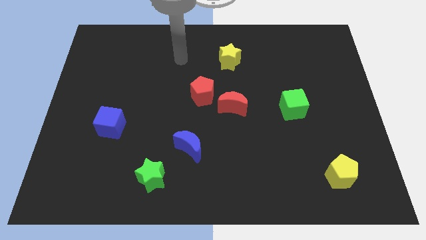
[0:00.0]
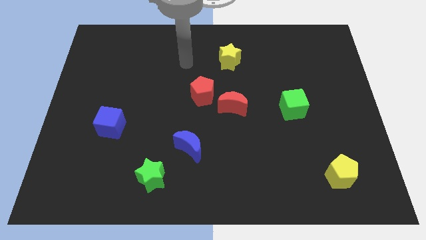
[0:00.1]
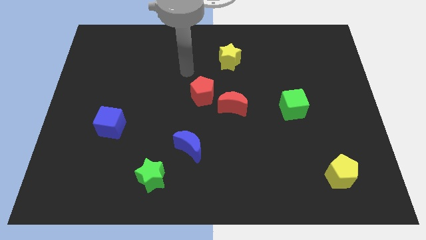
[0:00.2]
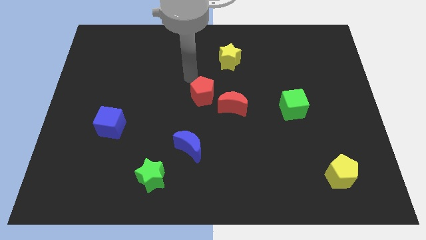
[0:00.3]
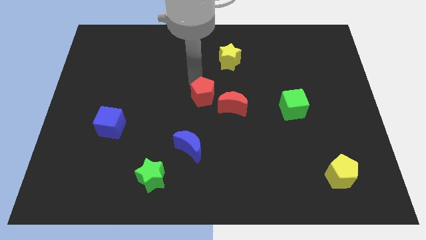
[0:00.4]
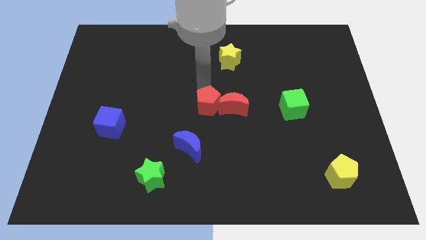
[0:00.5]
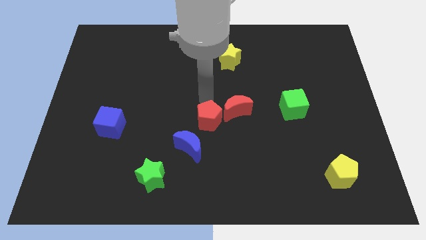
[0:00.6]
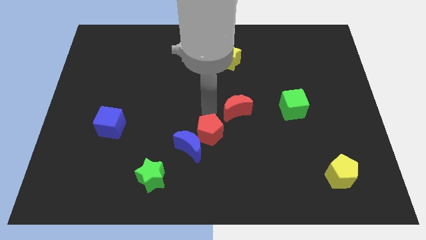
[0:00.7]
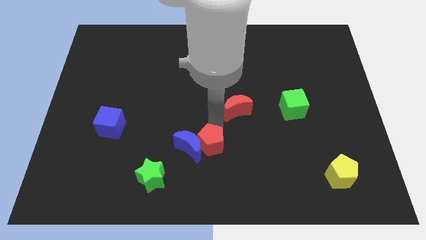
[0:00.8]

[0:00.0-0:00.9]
pull the red moon apart from the red pentagon

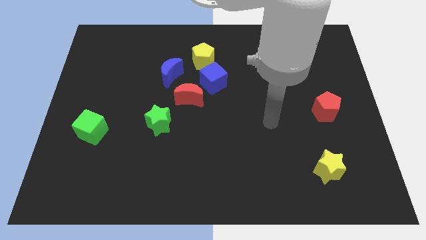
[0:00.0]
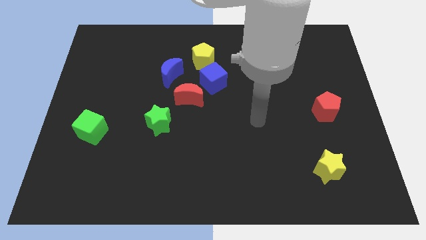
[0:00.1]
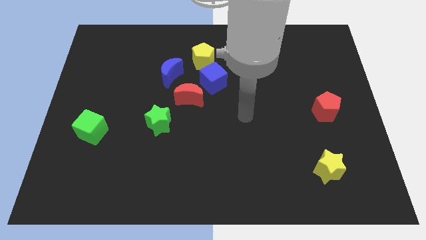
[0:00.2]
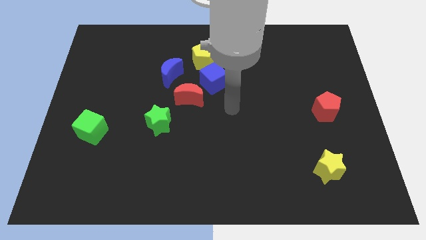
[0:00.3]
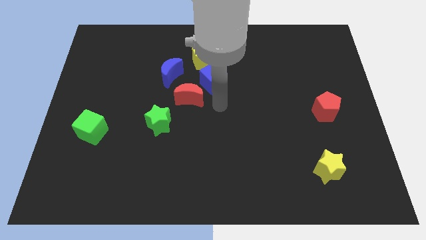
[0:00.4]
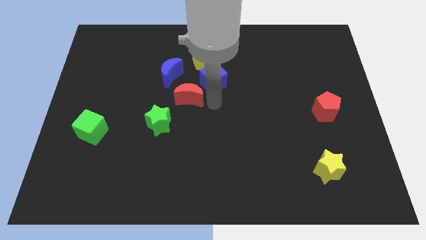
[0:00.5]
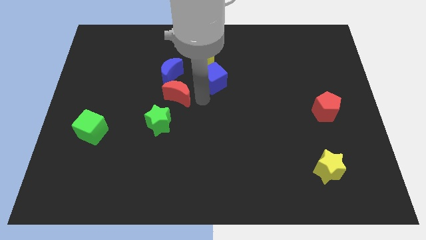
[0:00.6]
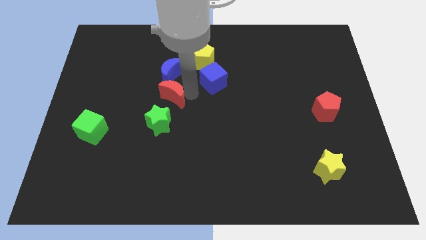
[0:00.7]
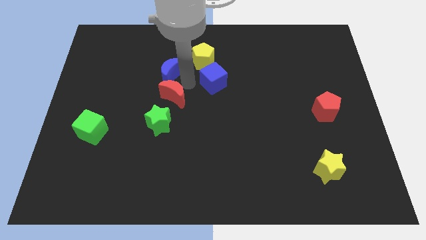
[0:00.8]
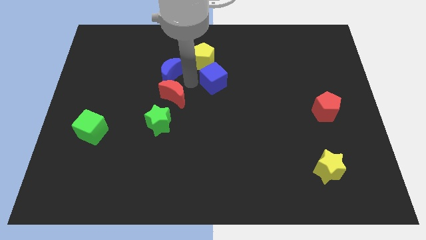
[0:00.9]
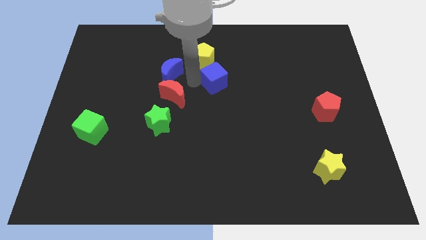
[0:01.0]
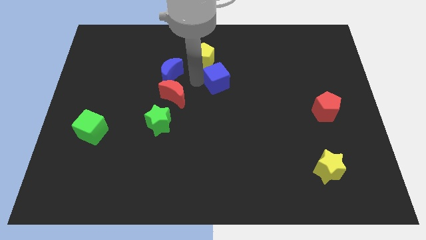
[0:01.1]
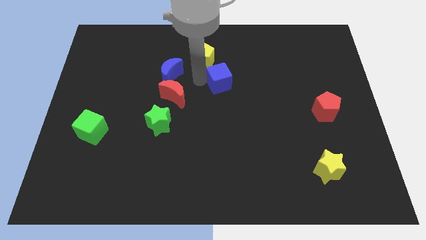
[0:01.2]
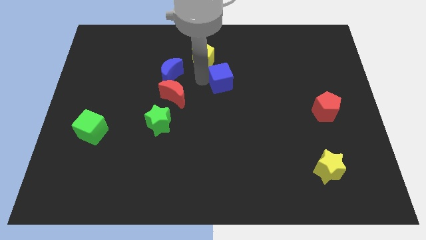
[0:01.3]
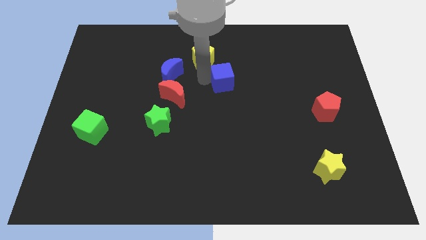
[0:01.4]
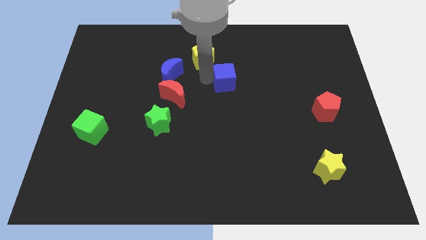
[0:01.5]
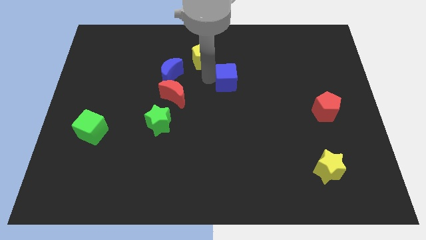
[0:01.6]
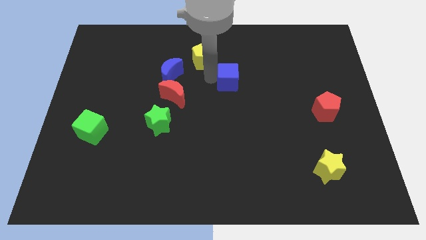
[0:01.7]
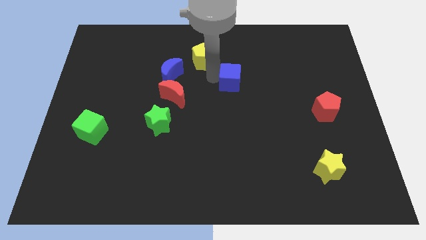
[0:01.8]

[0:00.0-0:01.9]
move the blue cube away from the red moon and yellow pentagon

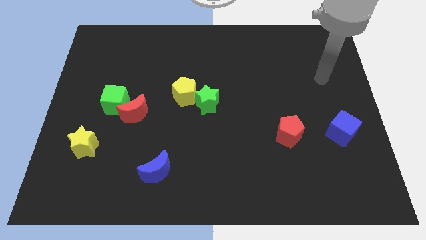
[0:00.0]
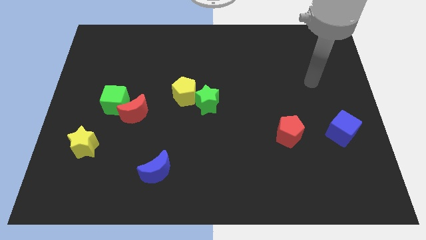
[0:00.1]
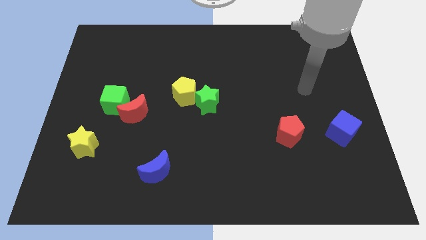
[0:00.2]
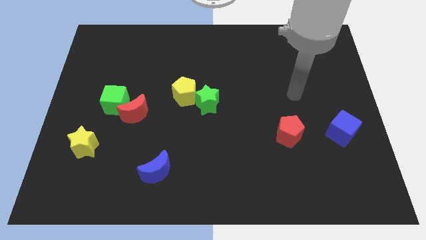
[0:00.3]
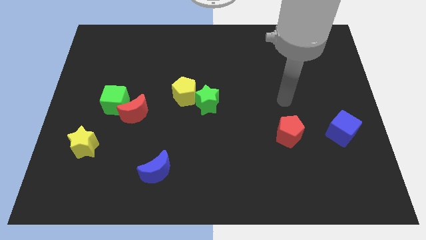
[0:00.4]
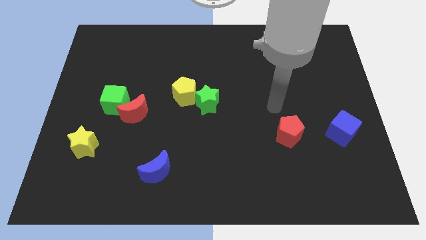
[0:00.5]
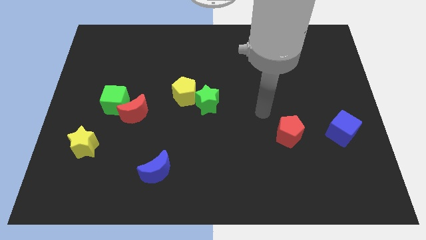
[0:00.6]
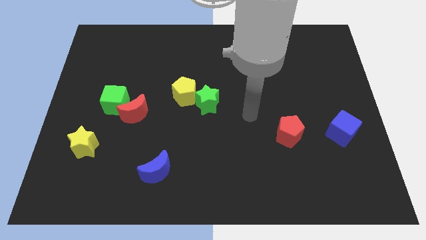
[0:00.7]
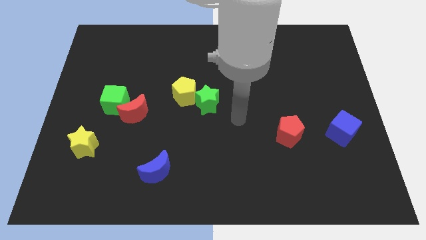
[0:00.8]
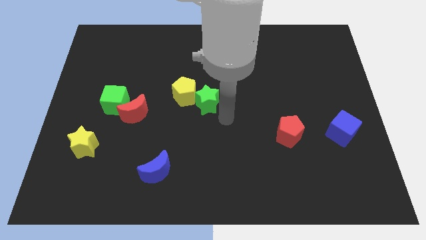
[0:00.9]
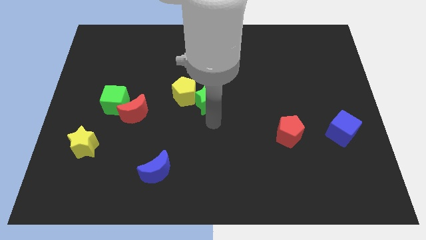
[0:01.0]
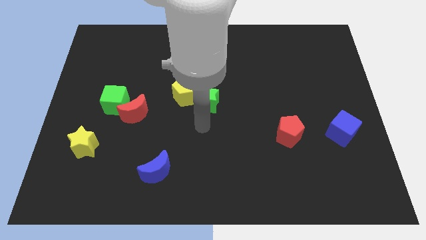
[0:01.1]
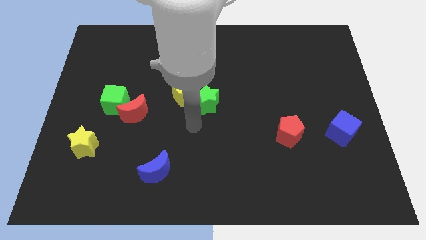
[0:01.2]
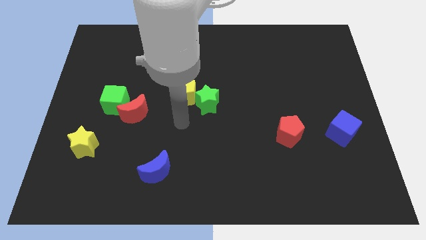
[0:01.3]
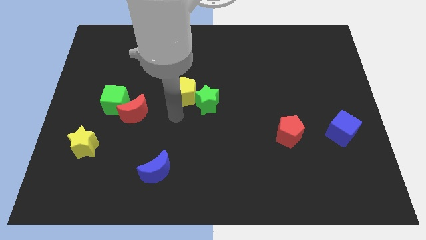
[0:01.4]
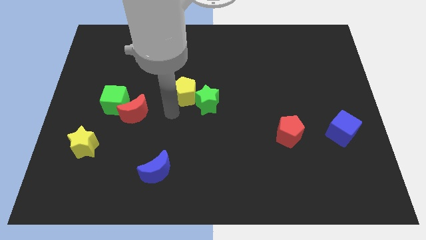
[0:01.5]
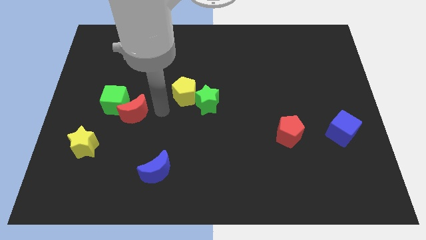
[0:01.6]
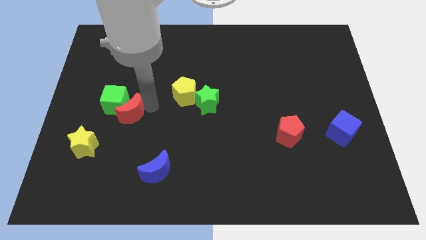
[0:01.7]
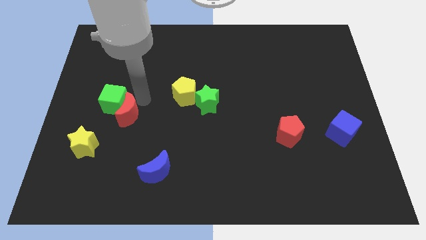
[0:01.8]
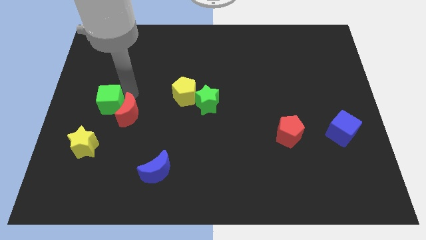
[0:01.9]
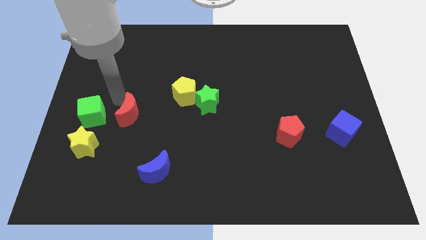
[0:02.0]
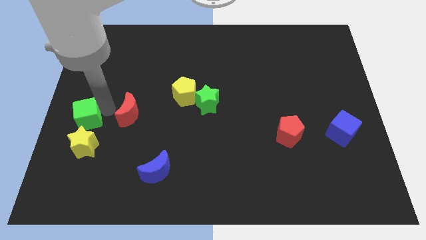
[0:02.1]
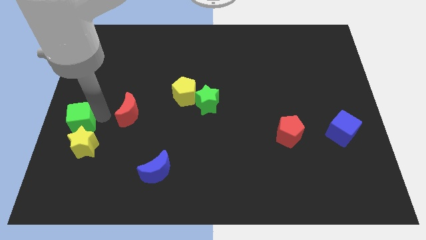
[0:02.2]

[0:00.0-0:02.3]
pull the red moon apart from the green cube

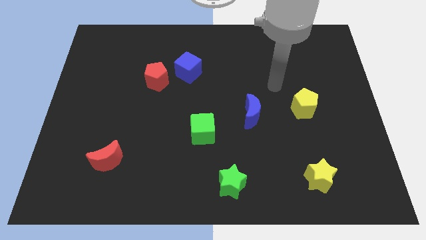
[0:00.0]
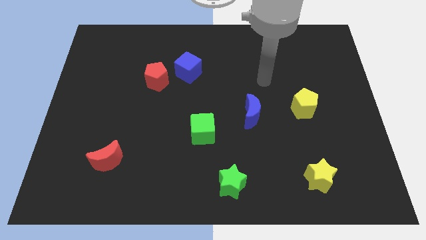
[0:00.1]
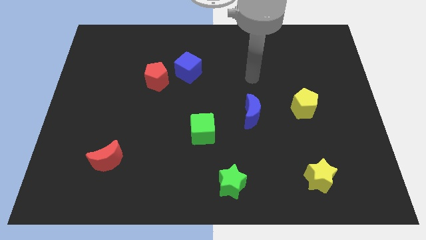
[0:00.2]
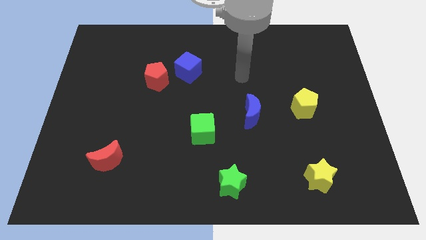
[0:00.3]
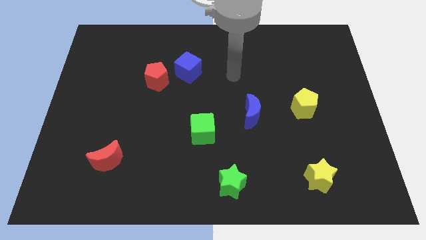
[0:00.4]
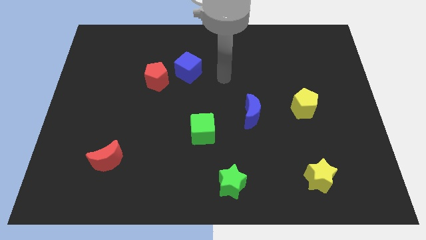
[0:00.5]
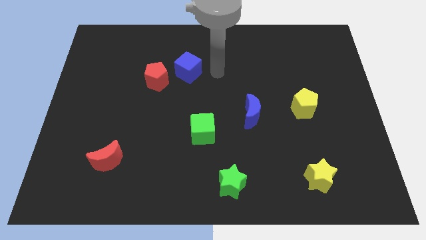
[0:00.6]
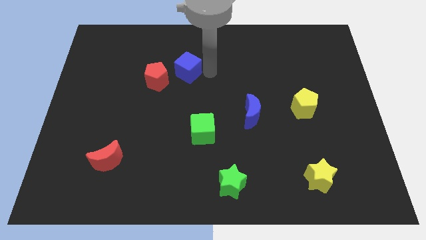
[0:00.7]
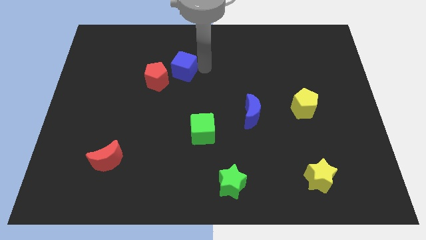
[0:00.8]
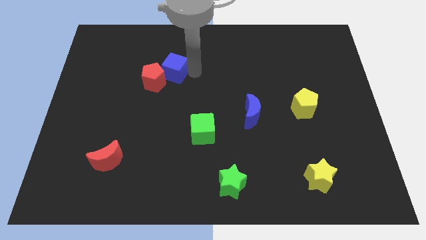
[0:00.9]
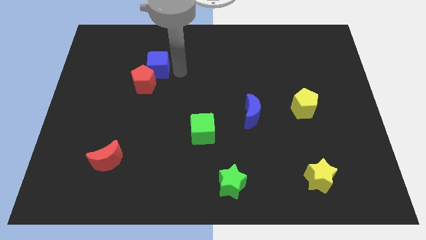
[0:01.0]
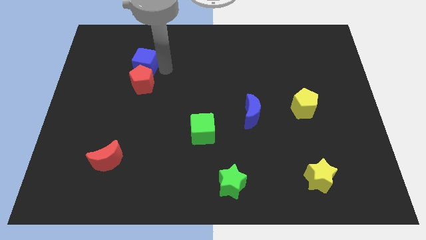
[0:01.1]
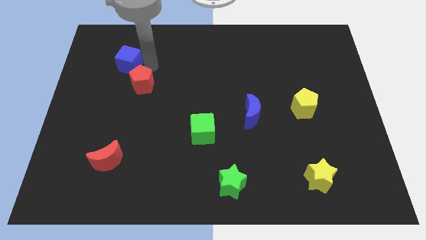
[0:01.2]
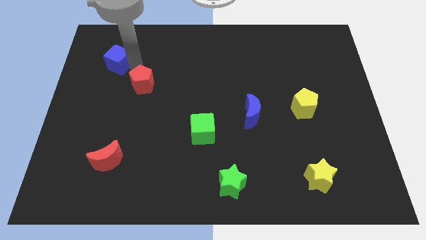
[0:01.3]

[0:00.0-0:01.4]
separate the red pentagon from the blue cube

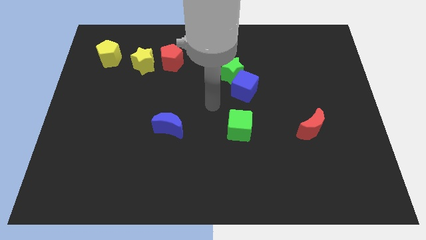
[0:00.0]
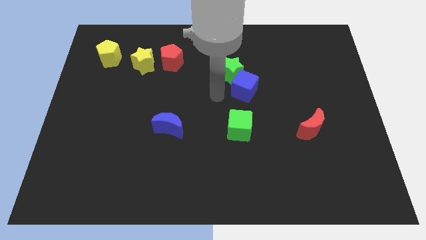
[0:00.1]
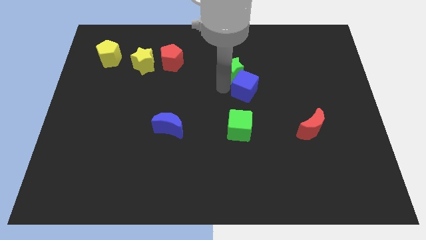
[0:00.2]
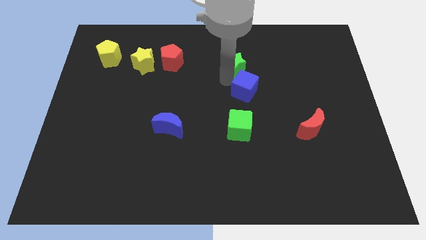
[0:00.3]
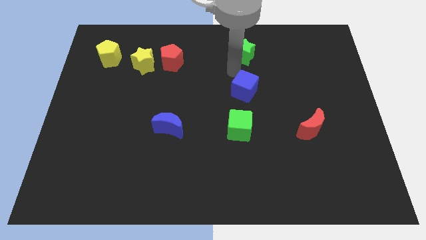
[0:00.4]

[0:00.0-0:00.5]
separate the blue cube from the green star

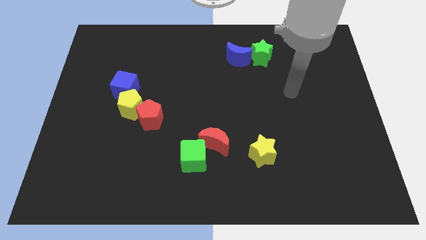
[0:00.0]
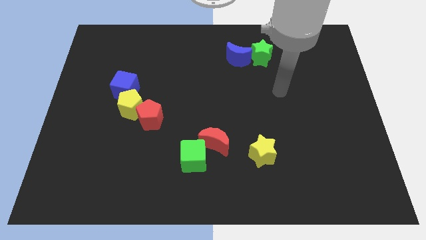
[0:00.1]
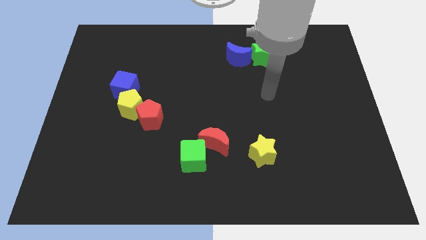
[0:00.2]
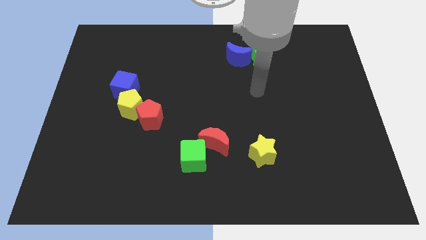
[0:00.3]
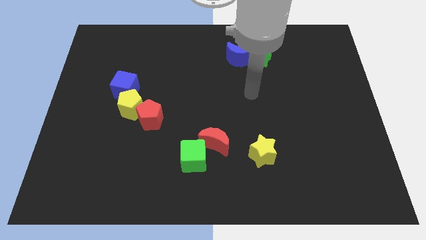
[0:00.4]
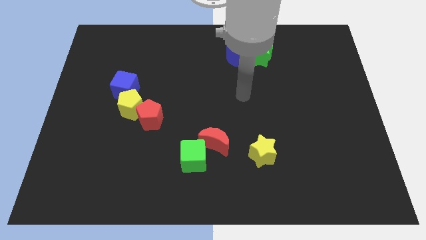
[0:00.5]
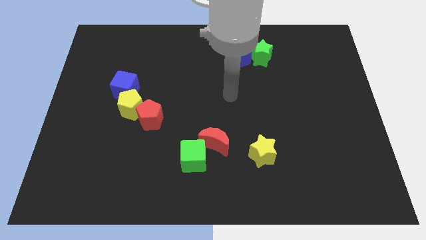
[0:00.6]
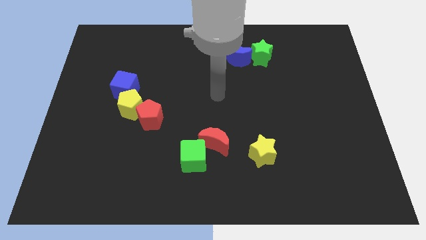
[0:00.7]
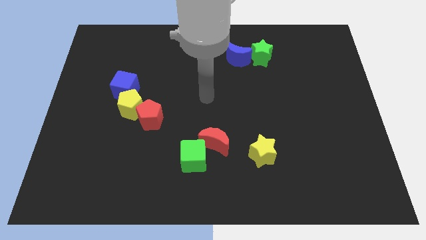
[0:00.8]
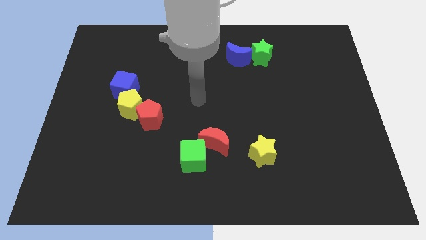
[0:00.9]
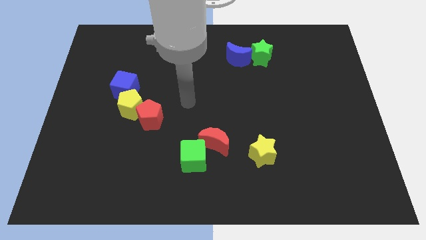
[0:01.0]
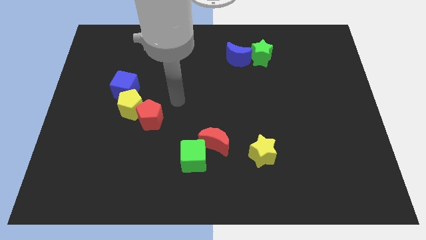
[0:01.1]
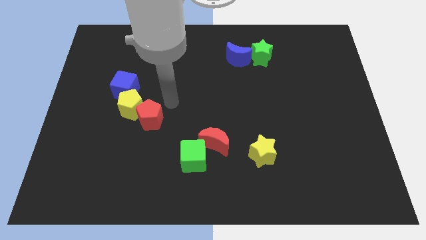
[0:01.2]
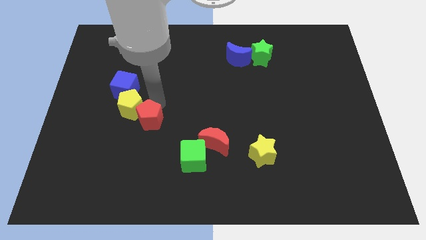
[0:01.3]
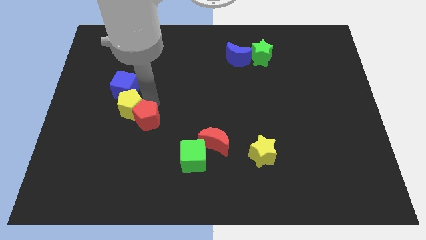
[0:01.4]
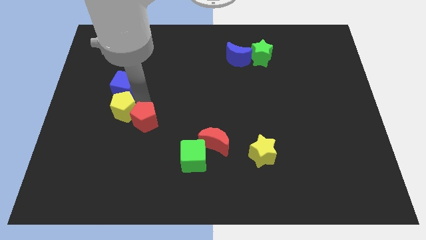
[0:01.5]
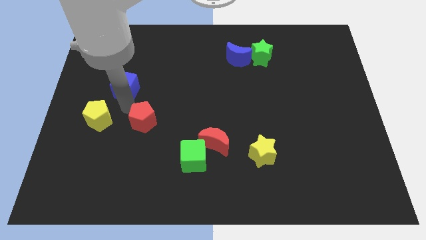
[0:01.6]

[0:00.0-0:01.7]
separate the red pentagon from the yellow pentagon

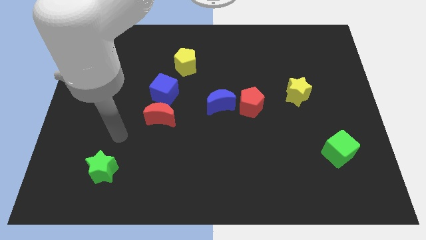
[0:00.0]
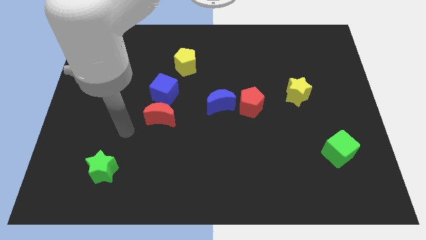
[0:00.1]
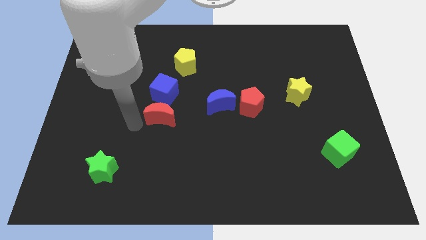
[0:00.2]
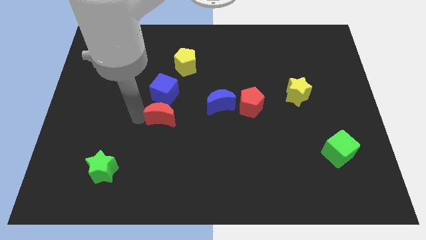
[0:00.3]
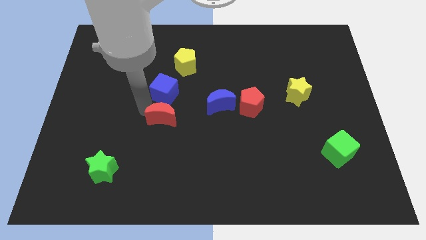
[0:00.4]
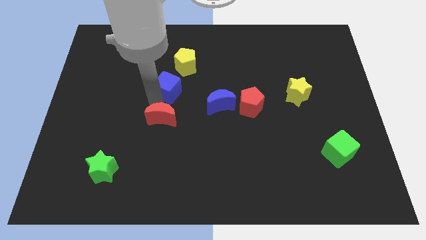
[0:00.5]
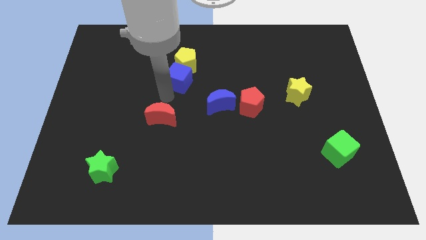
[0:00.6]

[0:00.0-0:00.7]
move the red moon away from the blue cube
